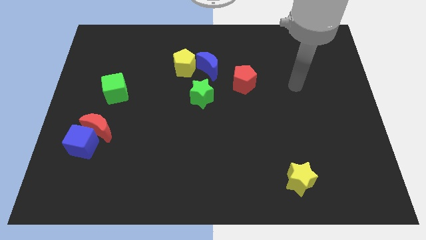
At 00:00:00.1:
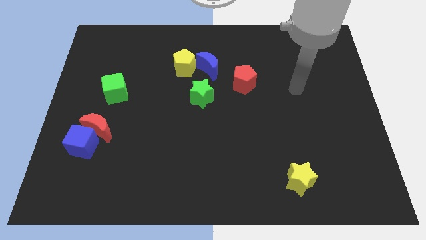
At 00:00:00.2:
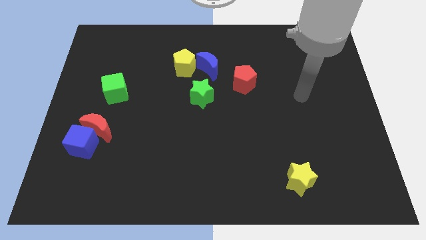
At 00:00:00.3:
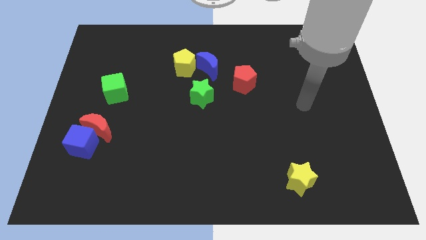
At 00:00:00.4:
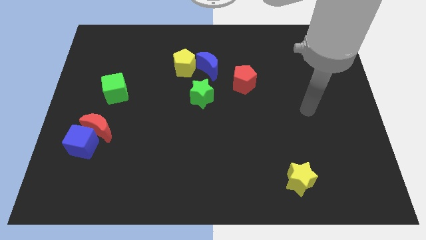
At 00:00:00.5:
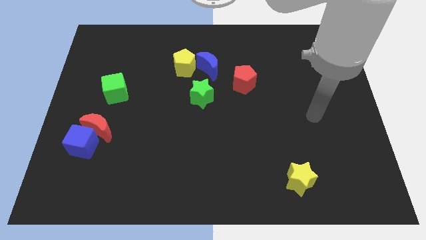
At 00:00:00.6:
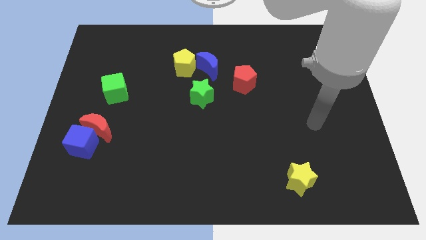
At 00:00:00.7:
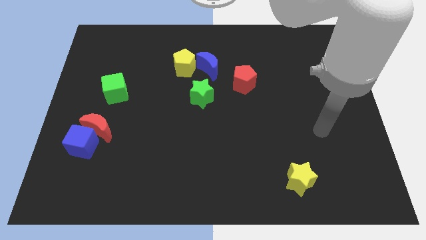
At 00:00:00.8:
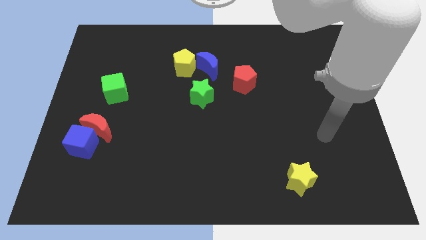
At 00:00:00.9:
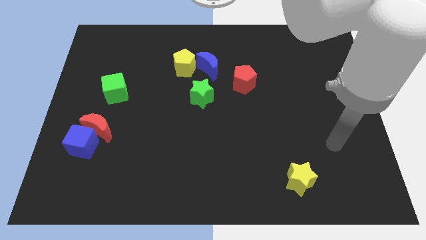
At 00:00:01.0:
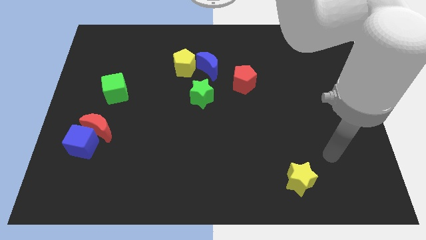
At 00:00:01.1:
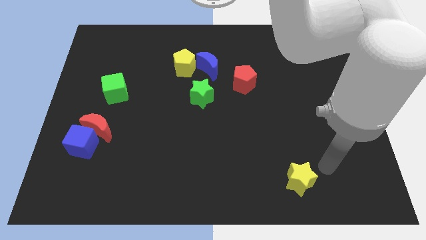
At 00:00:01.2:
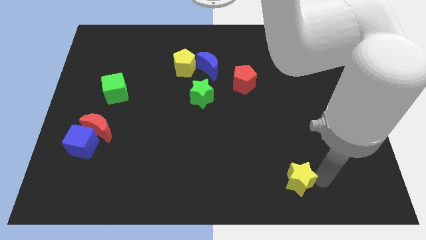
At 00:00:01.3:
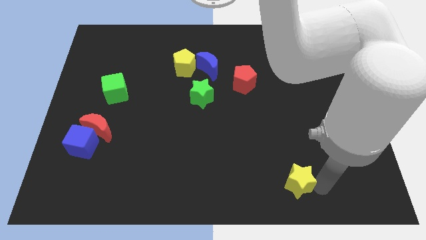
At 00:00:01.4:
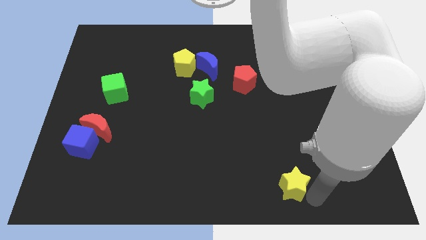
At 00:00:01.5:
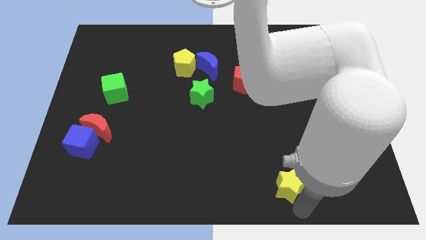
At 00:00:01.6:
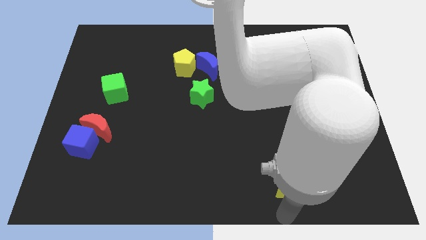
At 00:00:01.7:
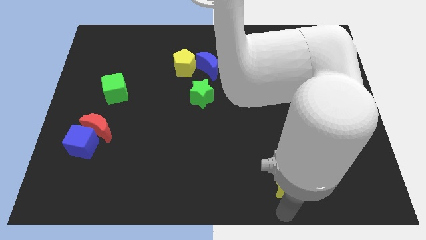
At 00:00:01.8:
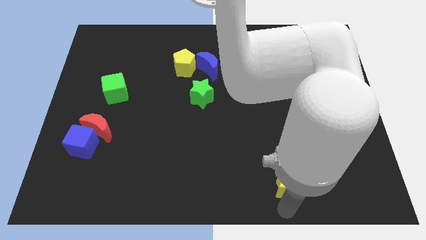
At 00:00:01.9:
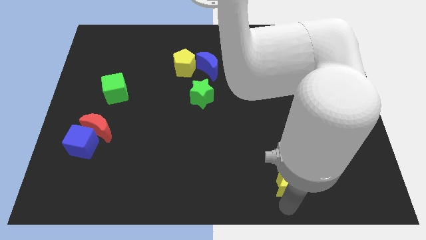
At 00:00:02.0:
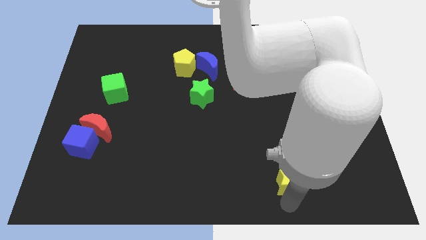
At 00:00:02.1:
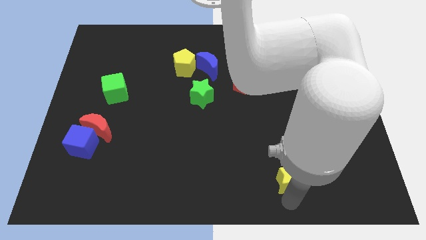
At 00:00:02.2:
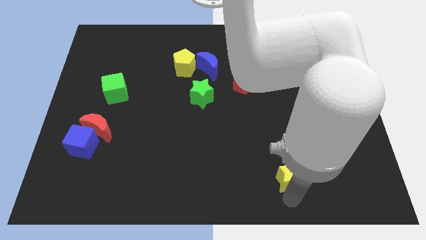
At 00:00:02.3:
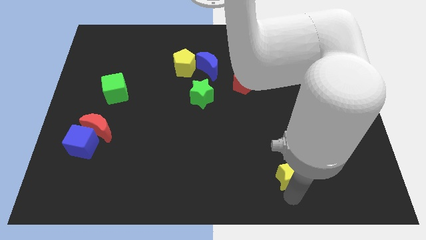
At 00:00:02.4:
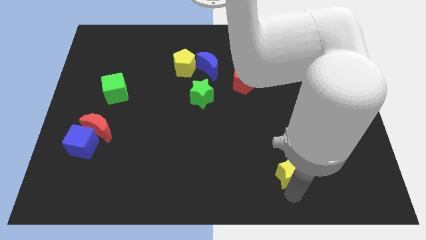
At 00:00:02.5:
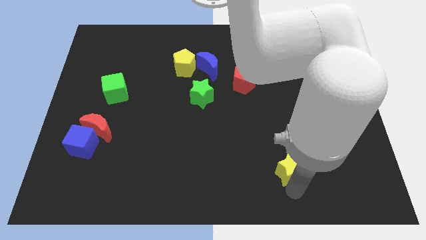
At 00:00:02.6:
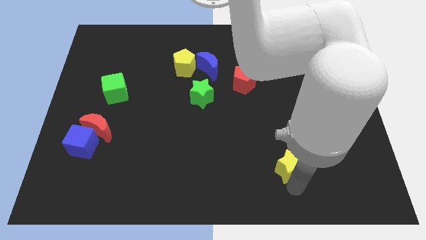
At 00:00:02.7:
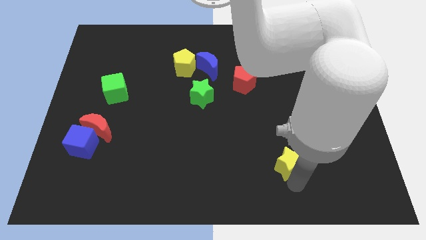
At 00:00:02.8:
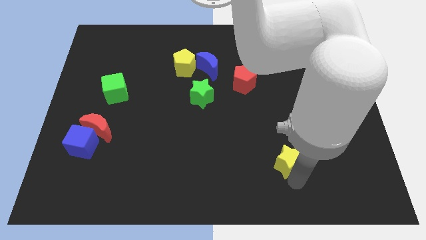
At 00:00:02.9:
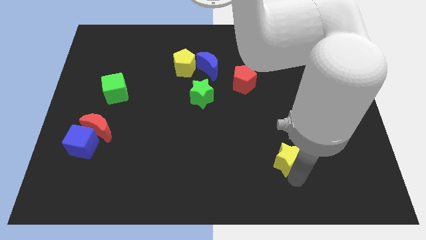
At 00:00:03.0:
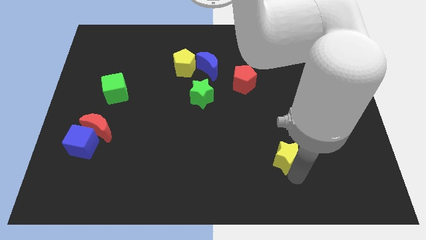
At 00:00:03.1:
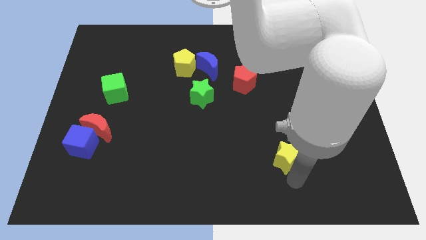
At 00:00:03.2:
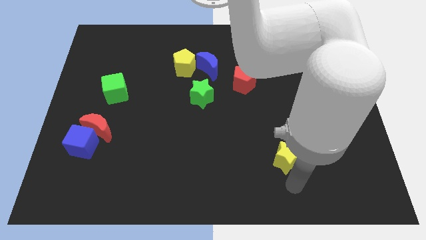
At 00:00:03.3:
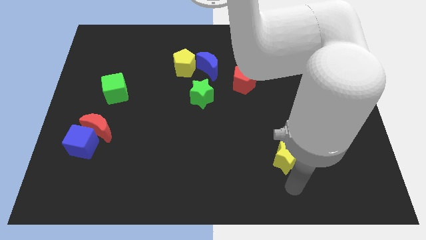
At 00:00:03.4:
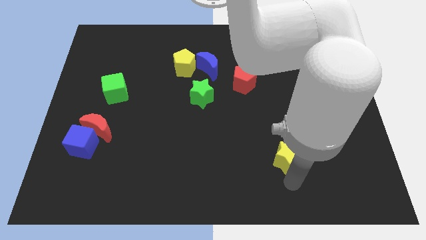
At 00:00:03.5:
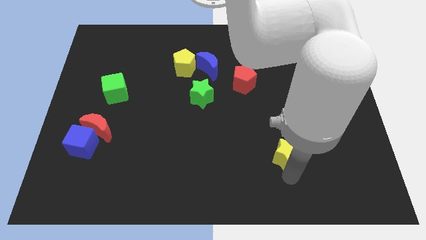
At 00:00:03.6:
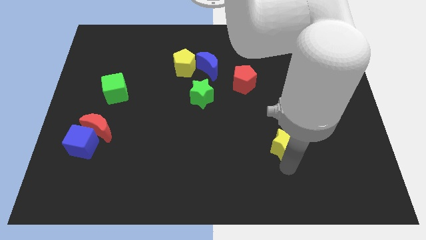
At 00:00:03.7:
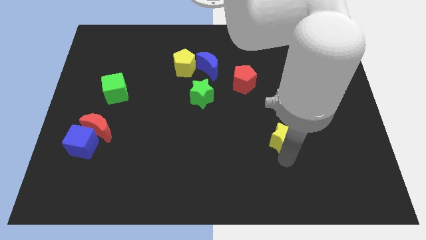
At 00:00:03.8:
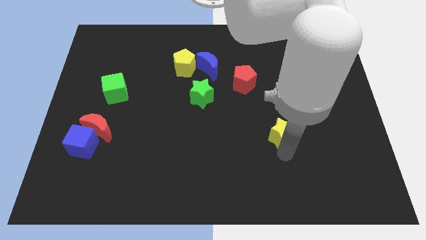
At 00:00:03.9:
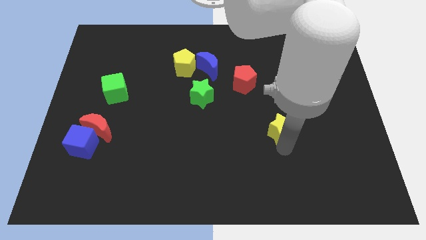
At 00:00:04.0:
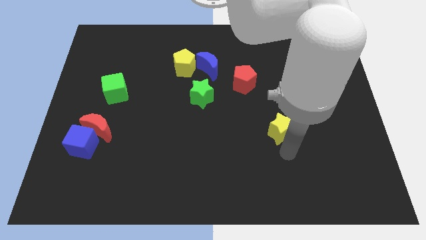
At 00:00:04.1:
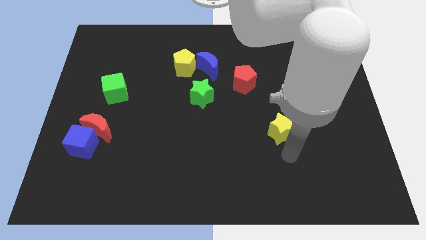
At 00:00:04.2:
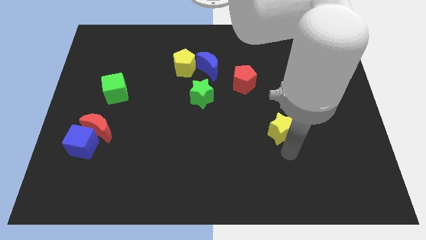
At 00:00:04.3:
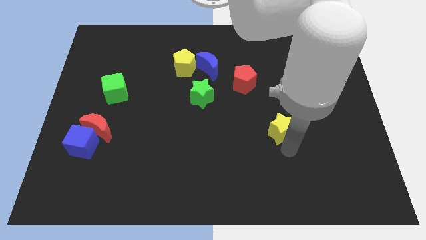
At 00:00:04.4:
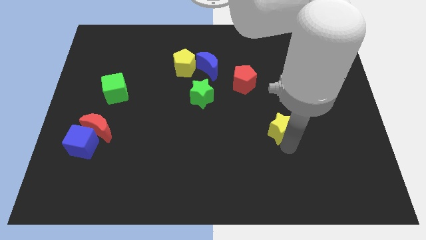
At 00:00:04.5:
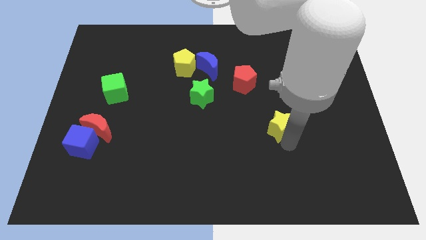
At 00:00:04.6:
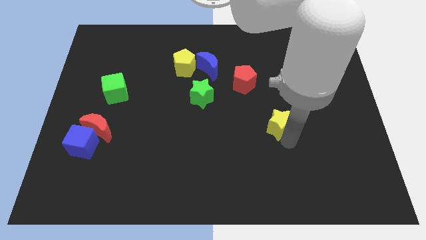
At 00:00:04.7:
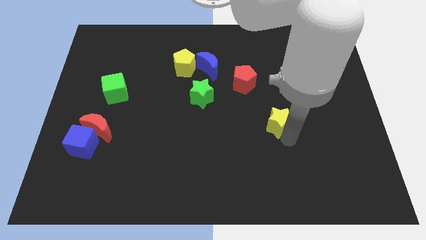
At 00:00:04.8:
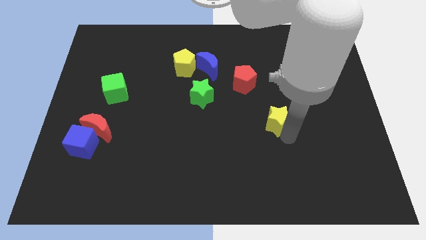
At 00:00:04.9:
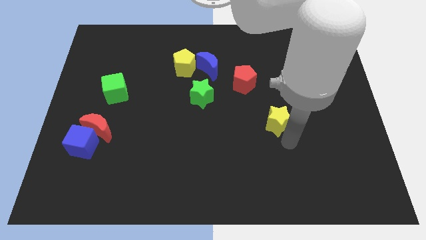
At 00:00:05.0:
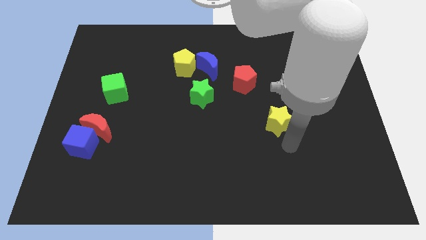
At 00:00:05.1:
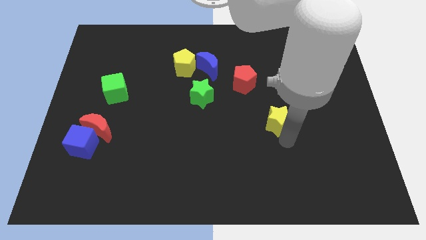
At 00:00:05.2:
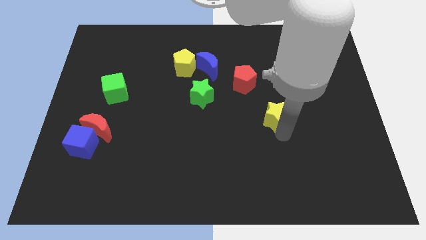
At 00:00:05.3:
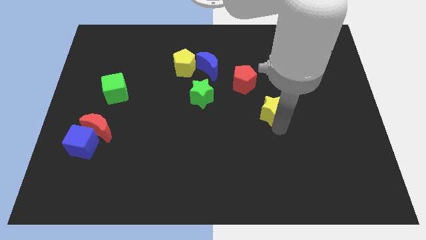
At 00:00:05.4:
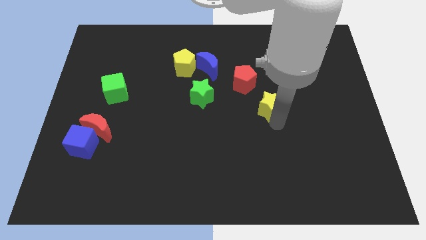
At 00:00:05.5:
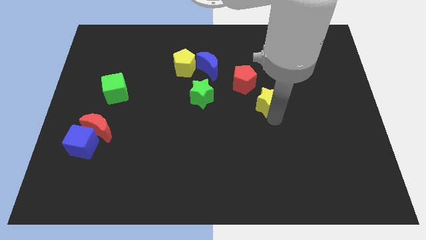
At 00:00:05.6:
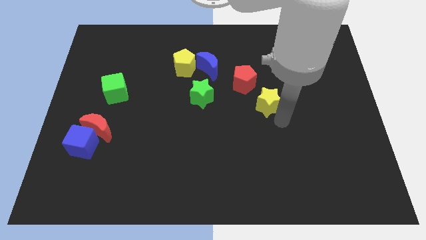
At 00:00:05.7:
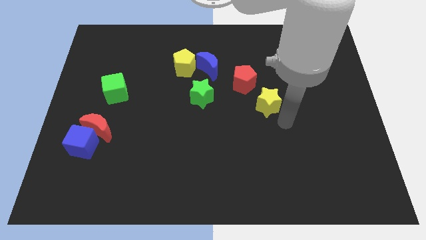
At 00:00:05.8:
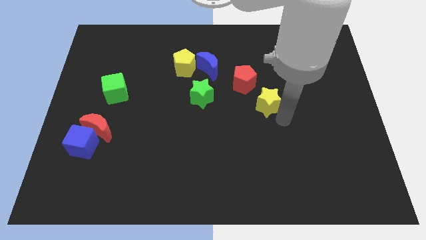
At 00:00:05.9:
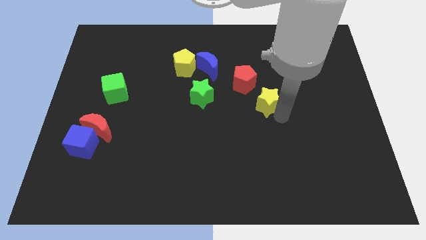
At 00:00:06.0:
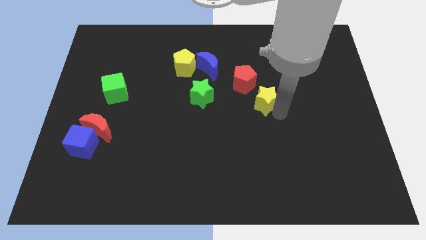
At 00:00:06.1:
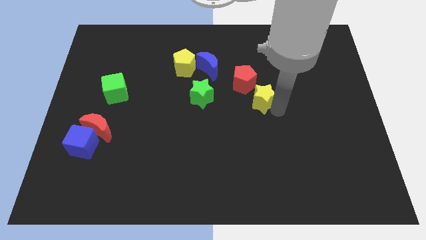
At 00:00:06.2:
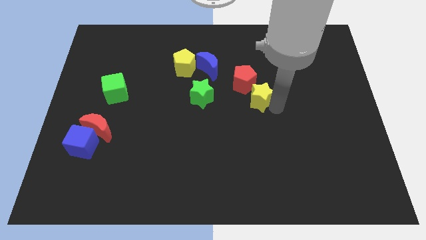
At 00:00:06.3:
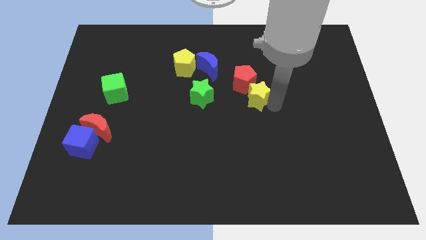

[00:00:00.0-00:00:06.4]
put the yellow star next to the red pentagon
